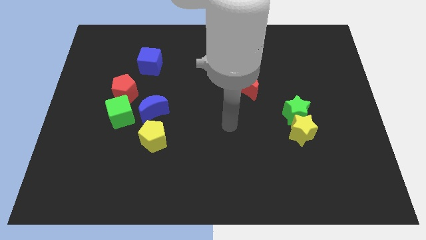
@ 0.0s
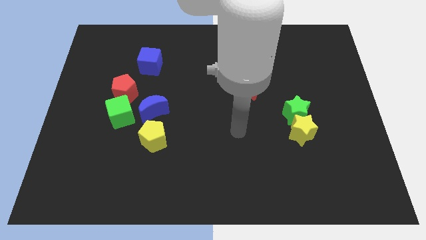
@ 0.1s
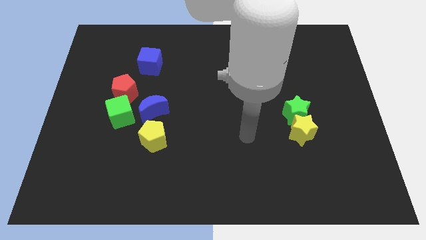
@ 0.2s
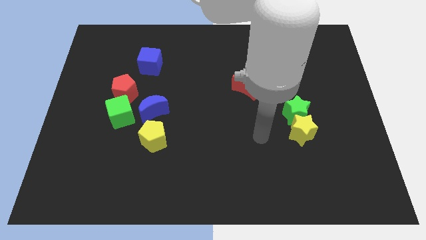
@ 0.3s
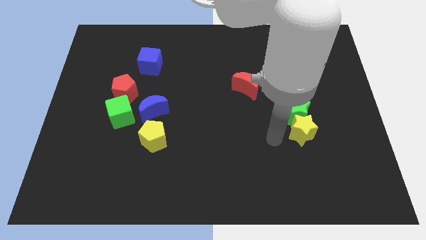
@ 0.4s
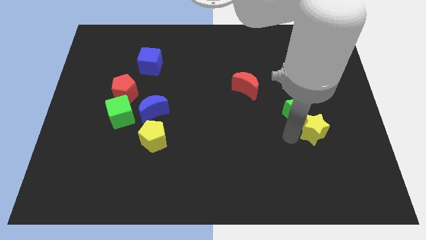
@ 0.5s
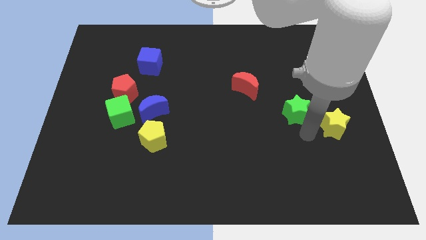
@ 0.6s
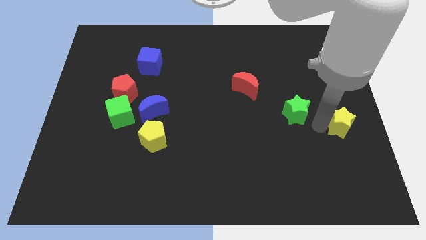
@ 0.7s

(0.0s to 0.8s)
separate the green star from the yellow star

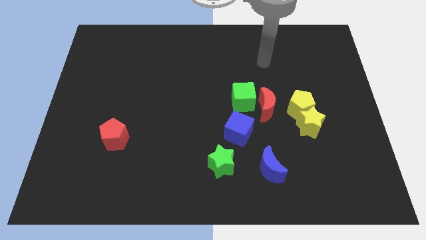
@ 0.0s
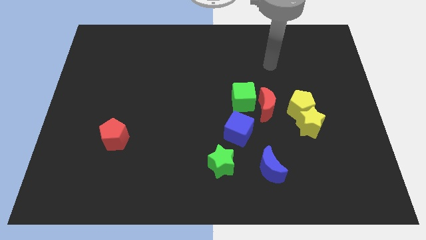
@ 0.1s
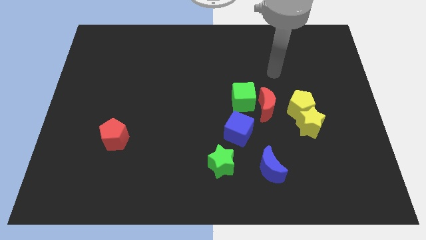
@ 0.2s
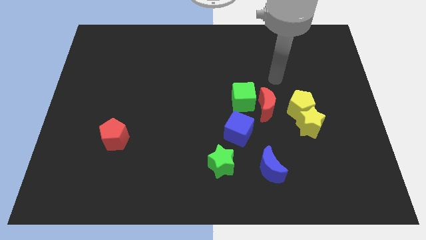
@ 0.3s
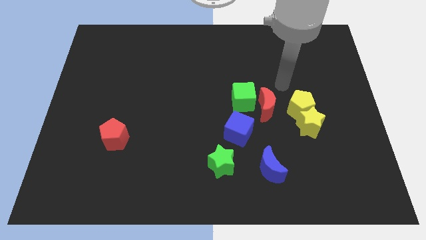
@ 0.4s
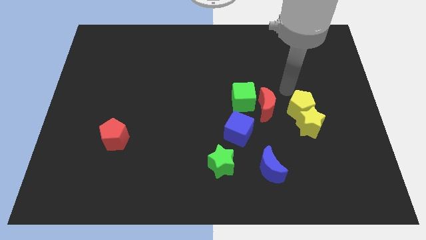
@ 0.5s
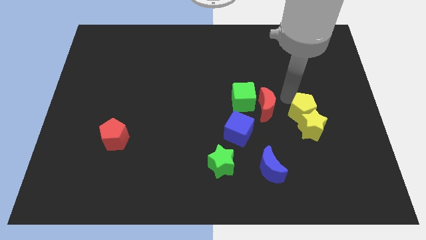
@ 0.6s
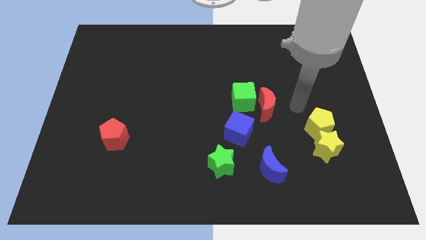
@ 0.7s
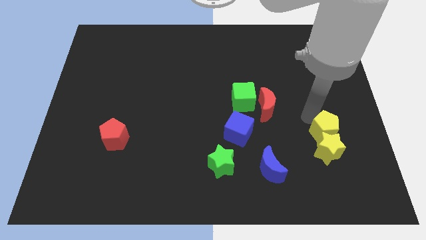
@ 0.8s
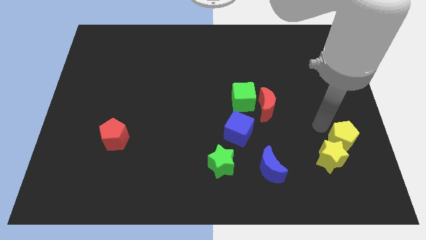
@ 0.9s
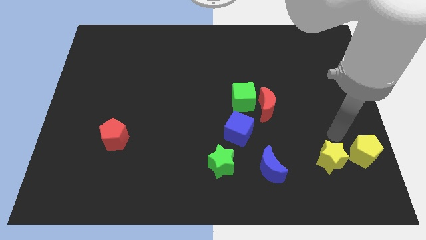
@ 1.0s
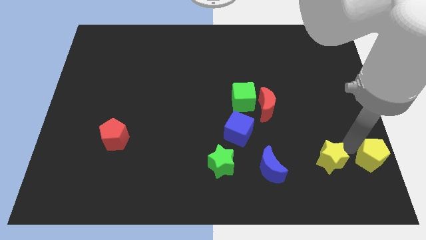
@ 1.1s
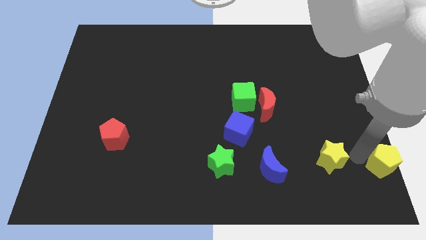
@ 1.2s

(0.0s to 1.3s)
pull the yellow star apart from the yellow pentagon

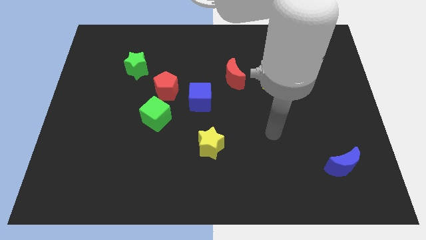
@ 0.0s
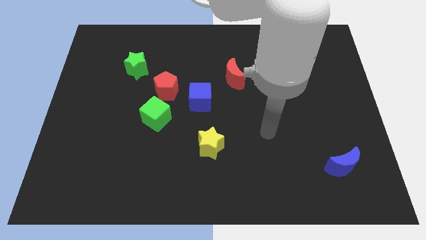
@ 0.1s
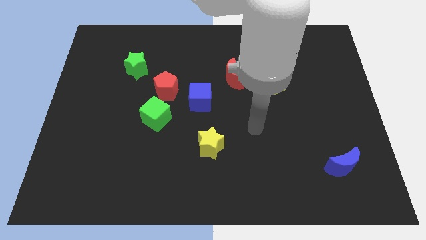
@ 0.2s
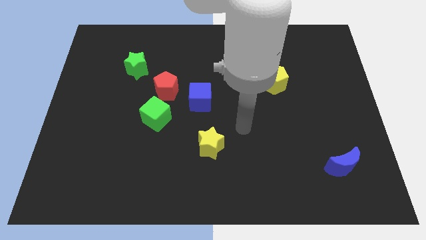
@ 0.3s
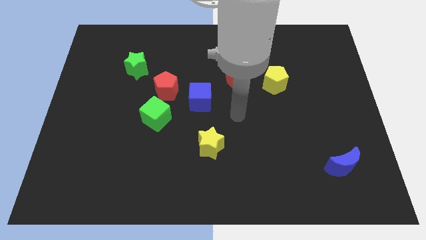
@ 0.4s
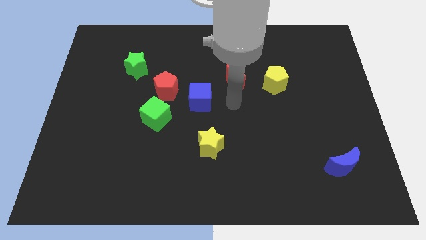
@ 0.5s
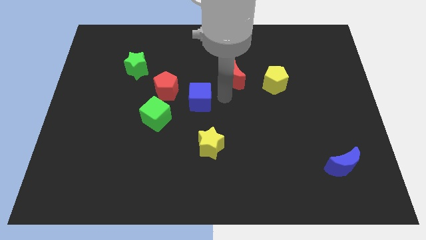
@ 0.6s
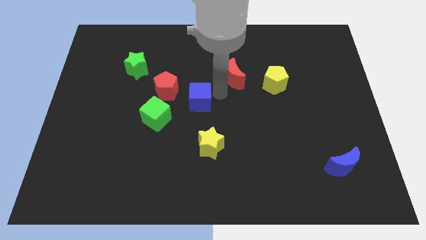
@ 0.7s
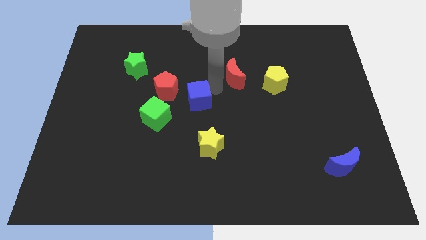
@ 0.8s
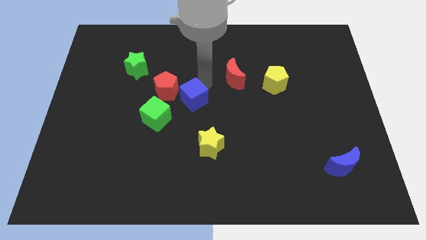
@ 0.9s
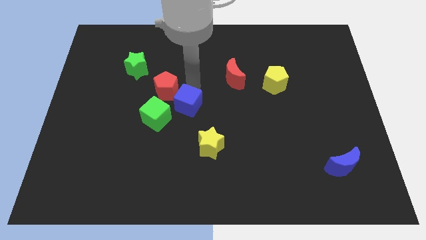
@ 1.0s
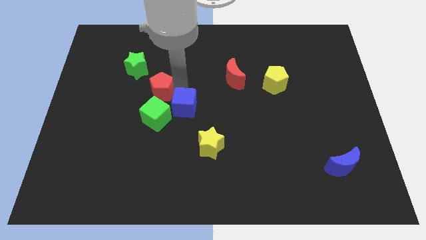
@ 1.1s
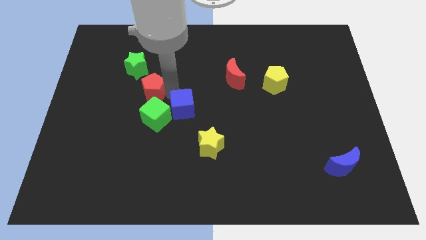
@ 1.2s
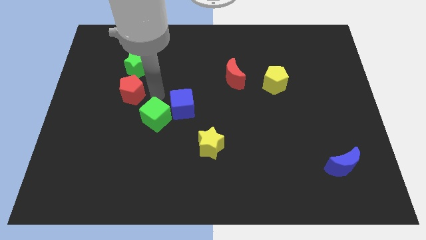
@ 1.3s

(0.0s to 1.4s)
separate the green cube from the red pentagon

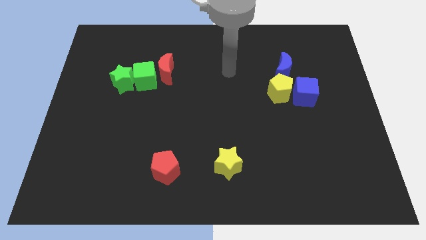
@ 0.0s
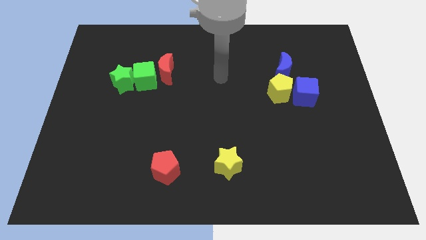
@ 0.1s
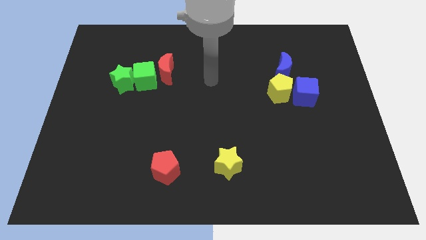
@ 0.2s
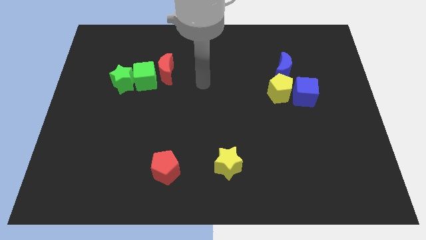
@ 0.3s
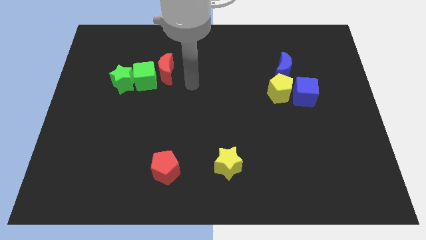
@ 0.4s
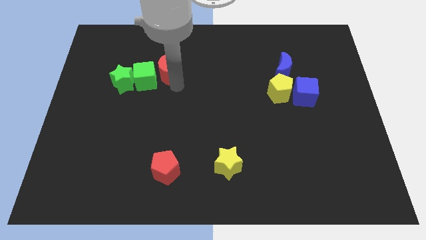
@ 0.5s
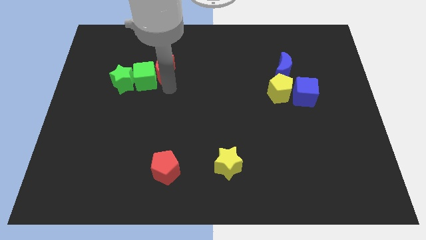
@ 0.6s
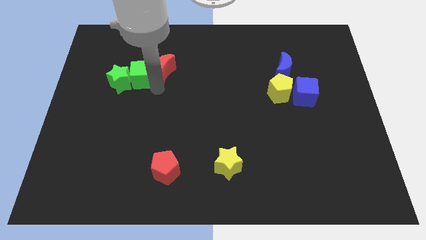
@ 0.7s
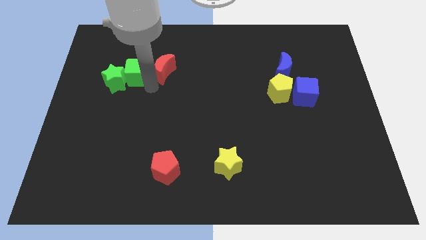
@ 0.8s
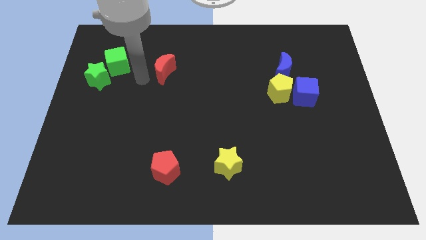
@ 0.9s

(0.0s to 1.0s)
pull the red moon apart from the green cube

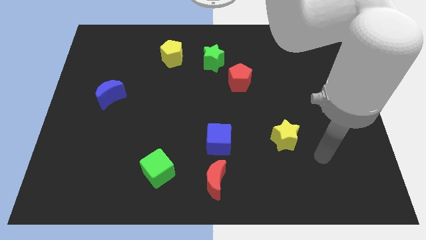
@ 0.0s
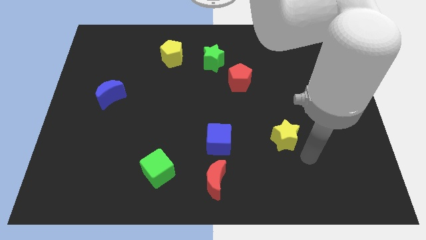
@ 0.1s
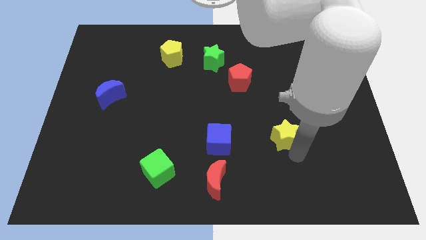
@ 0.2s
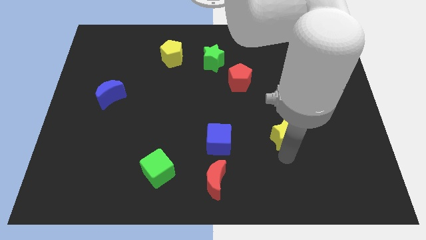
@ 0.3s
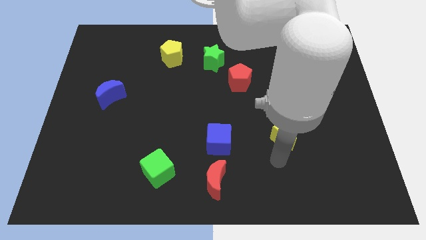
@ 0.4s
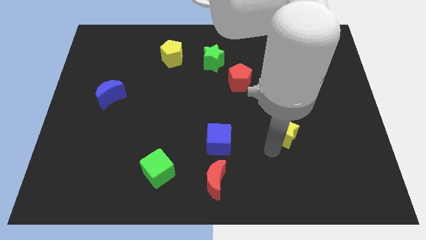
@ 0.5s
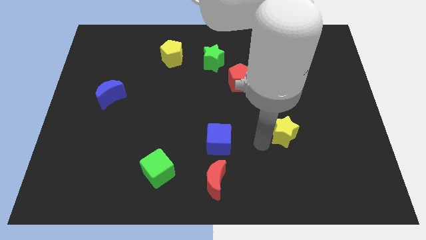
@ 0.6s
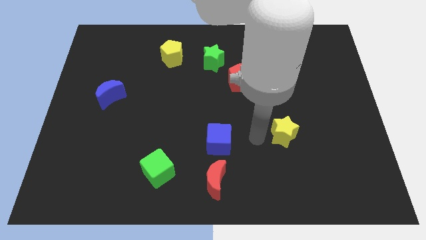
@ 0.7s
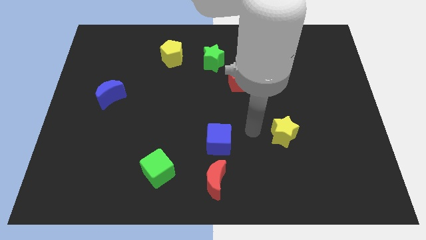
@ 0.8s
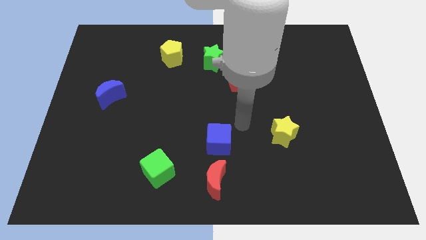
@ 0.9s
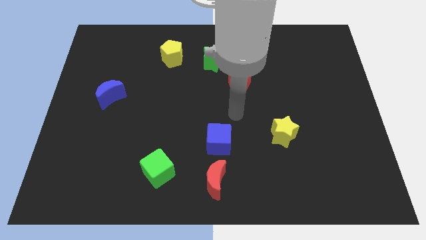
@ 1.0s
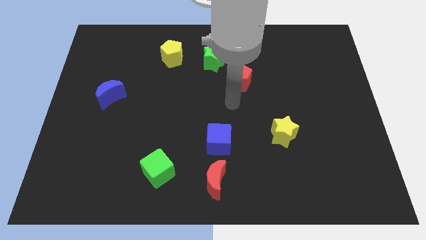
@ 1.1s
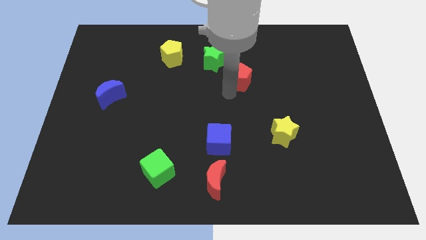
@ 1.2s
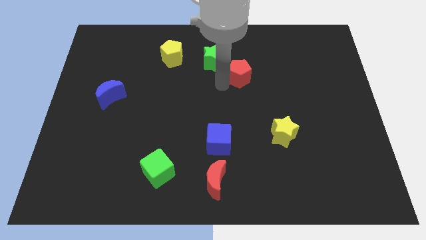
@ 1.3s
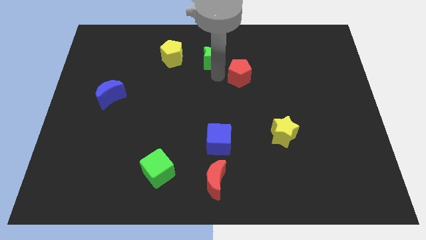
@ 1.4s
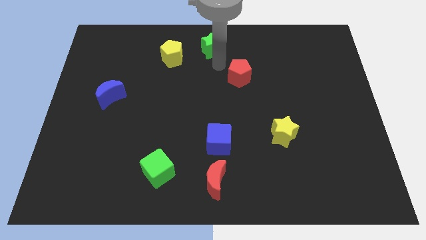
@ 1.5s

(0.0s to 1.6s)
move the red pentagon away from the green star

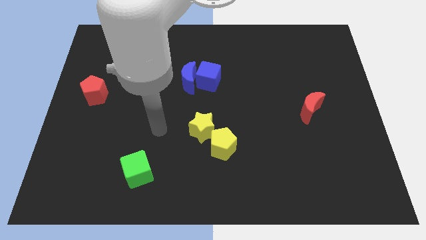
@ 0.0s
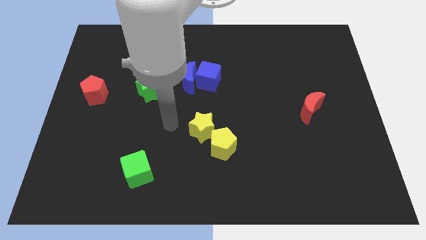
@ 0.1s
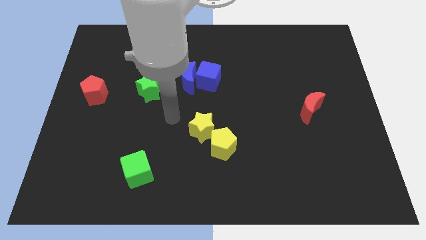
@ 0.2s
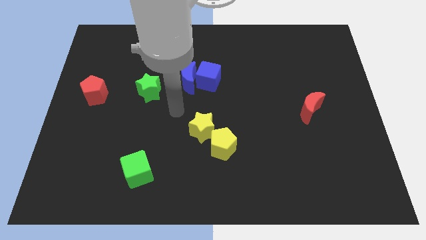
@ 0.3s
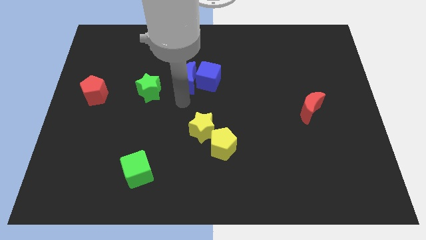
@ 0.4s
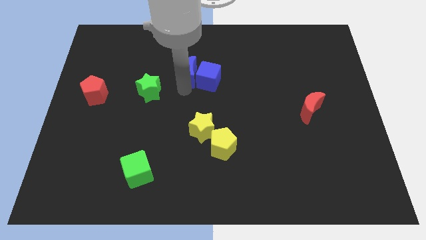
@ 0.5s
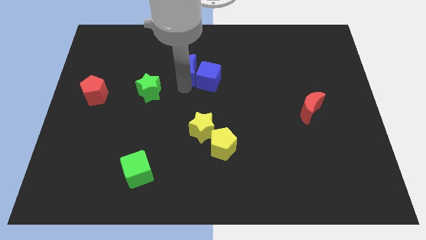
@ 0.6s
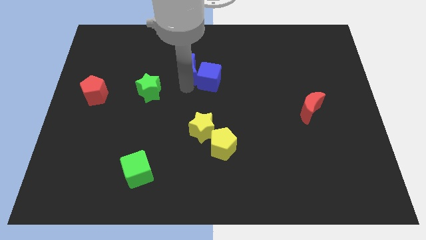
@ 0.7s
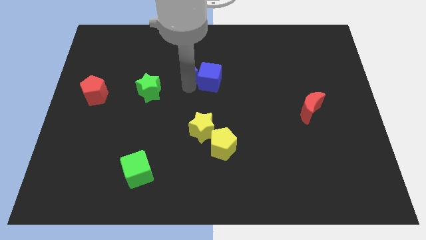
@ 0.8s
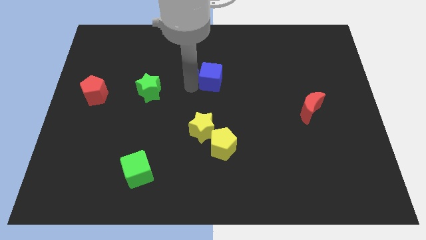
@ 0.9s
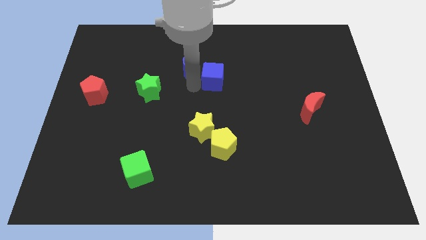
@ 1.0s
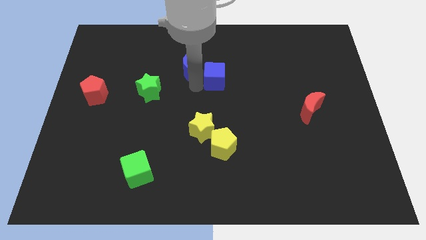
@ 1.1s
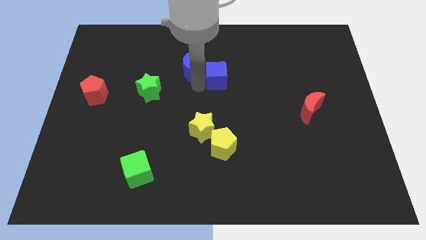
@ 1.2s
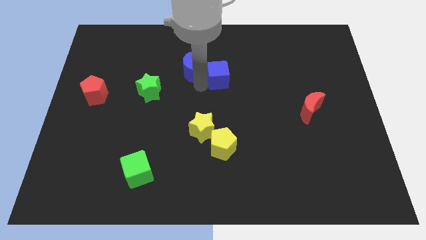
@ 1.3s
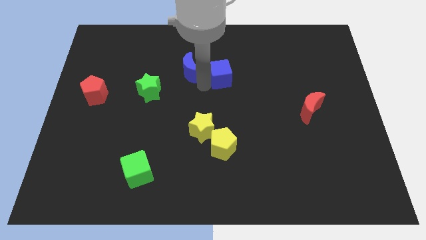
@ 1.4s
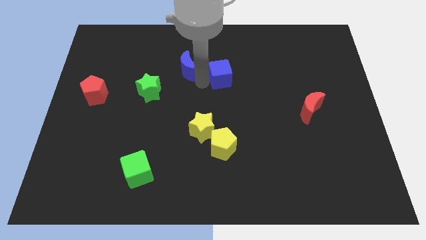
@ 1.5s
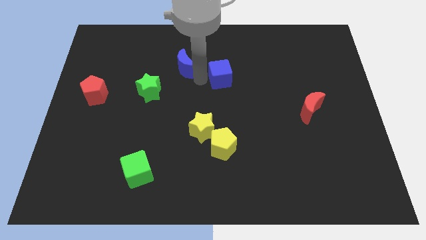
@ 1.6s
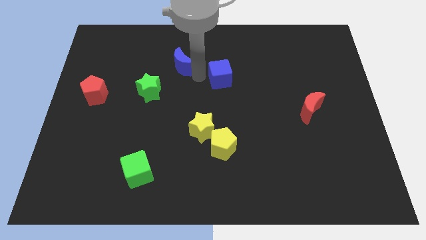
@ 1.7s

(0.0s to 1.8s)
pull the blue cube apart from the blue moon

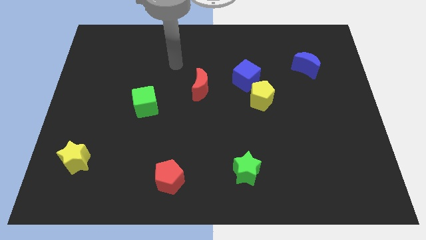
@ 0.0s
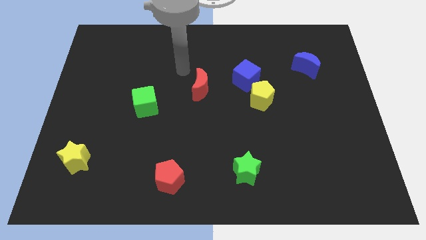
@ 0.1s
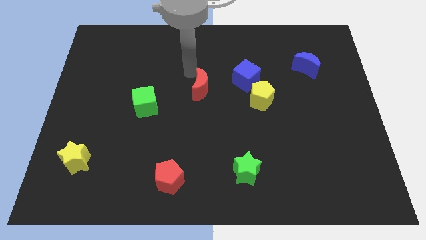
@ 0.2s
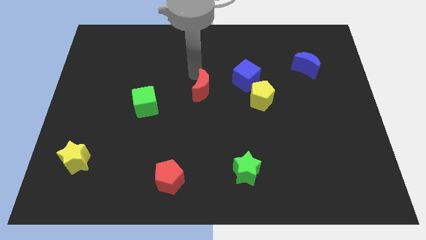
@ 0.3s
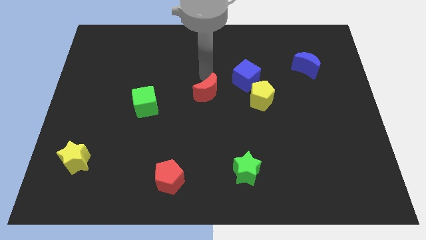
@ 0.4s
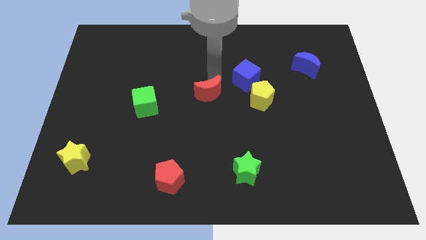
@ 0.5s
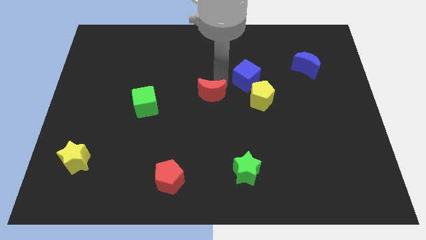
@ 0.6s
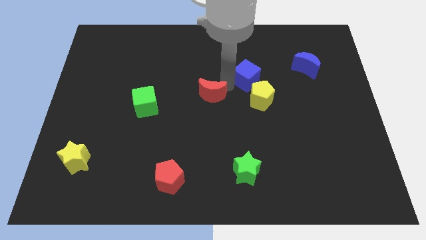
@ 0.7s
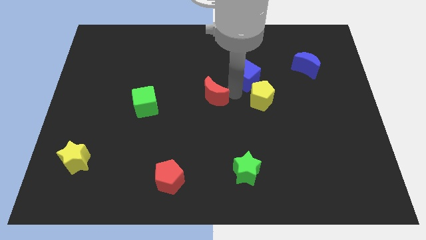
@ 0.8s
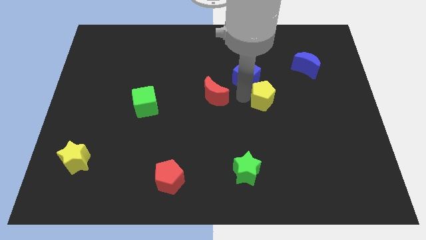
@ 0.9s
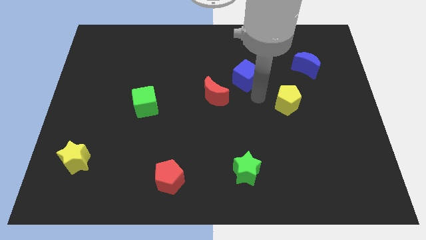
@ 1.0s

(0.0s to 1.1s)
separate the blue cube from the yellow pentagon

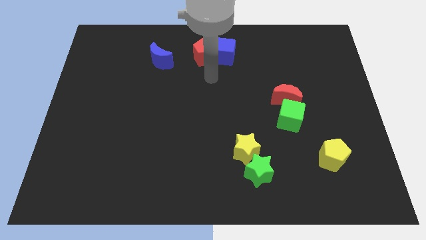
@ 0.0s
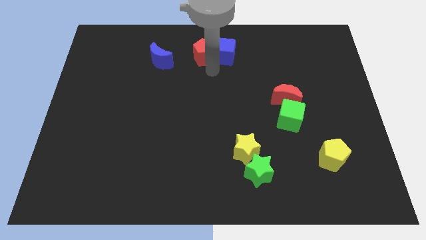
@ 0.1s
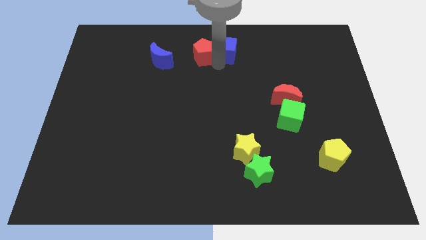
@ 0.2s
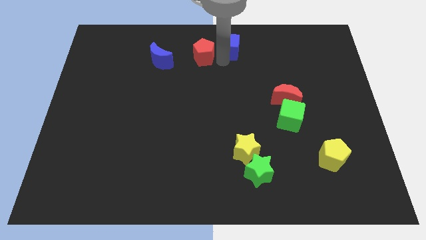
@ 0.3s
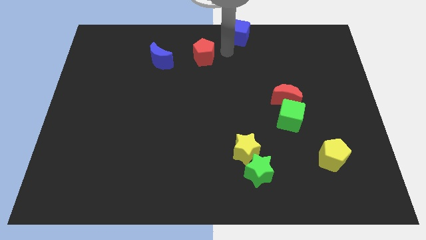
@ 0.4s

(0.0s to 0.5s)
separate the red pentagon from the blue cube
